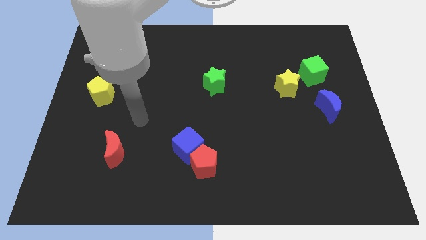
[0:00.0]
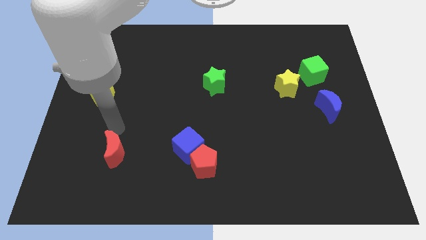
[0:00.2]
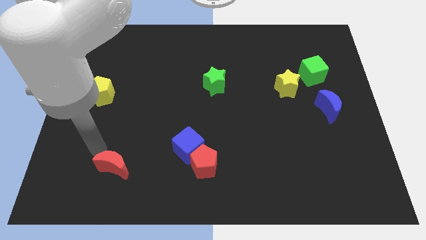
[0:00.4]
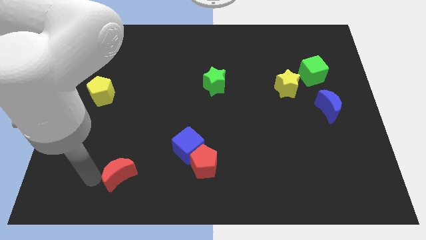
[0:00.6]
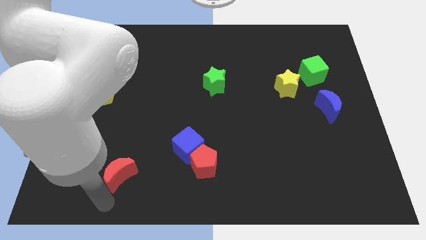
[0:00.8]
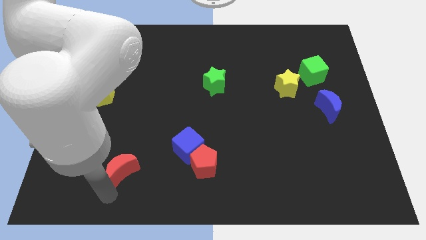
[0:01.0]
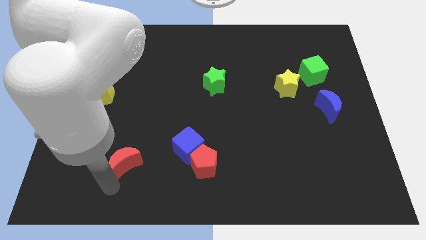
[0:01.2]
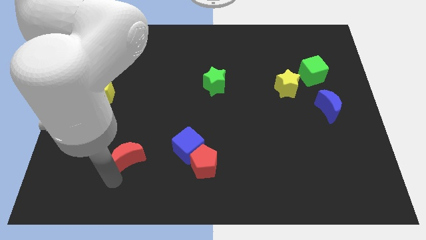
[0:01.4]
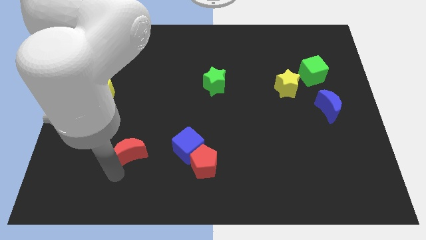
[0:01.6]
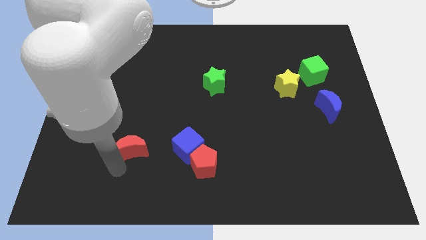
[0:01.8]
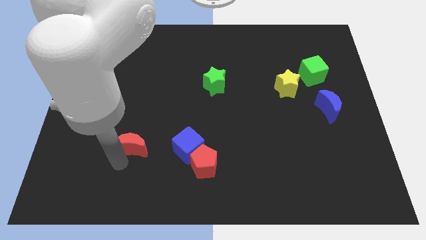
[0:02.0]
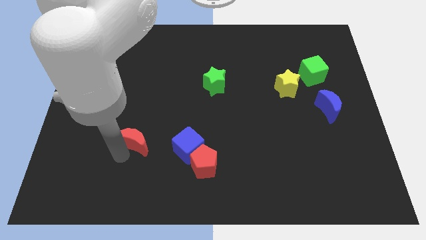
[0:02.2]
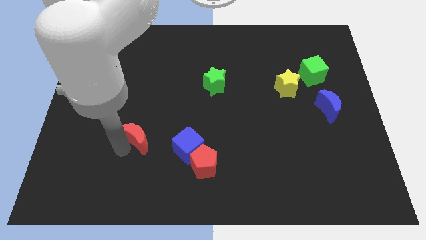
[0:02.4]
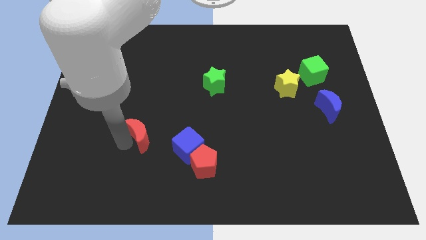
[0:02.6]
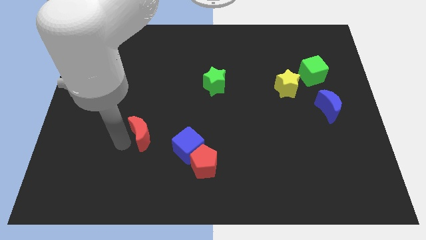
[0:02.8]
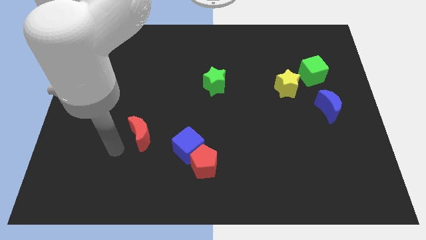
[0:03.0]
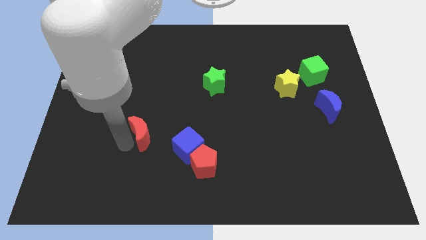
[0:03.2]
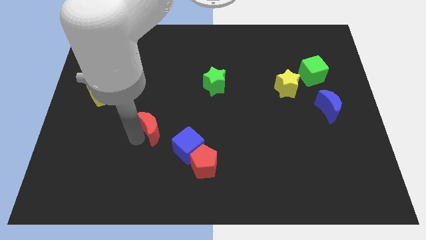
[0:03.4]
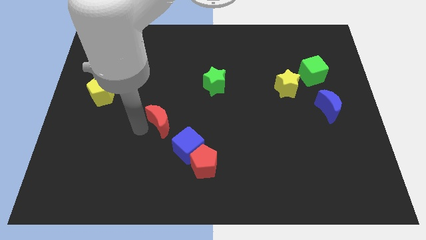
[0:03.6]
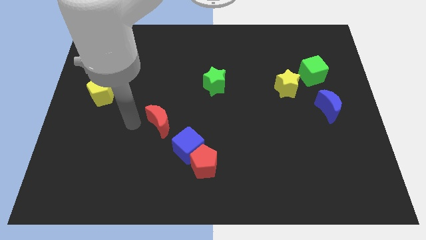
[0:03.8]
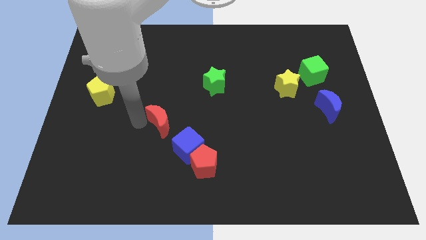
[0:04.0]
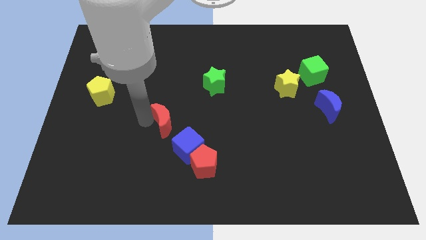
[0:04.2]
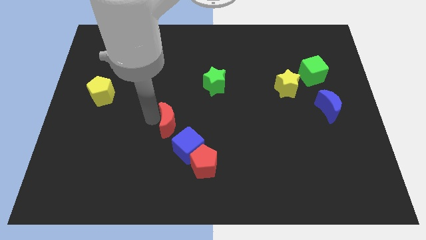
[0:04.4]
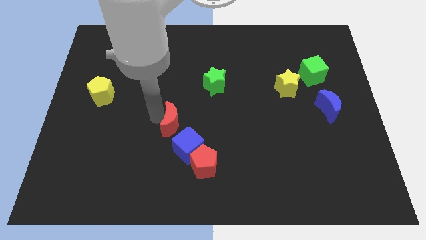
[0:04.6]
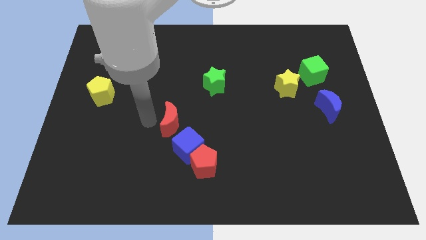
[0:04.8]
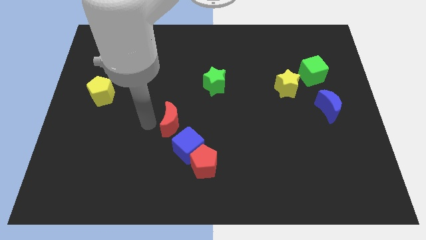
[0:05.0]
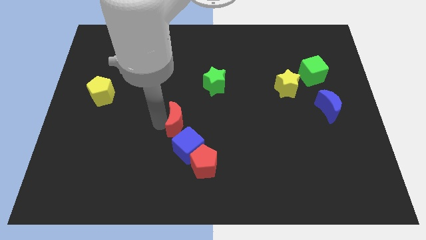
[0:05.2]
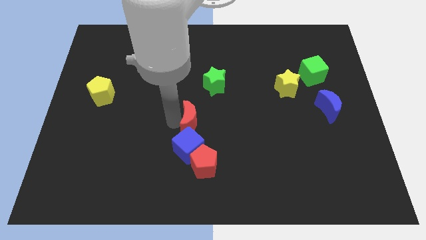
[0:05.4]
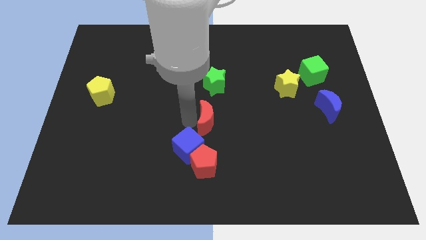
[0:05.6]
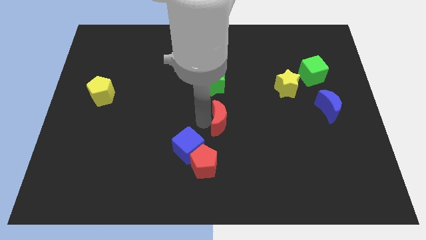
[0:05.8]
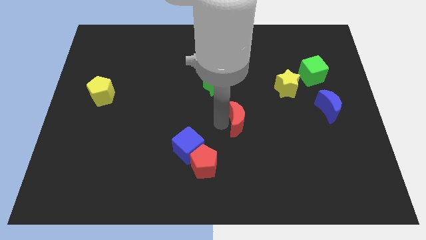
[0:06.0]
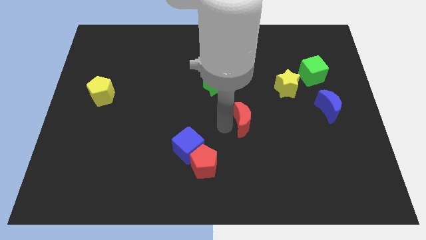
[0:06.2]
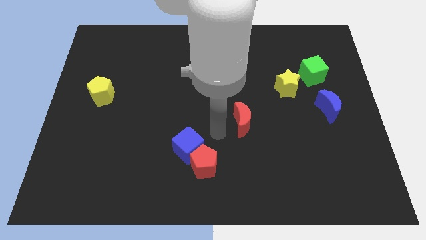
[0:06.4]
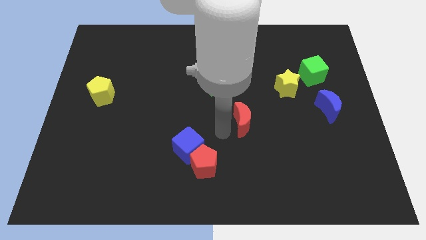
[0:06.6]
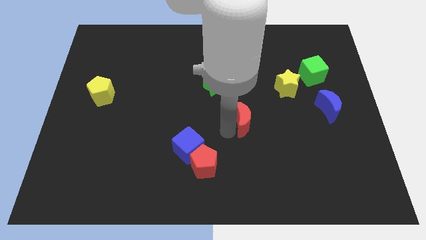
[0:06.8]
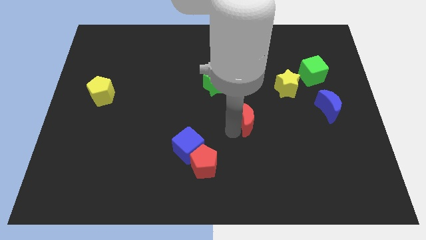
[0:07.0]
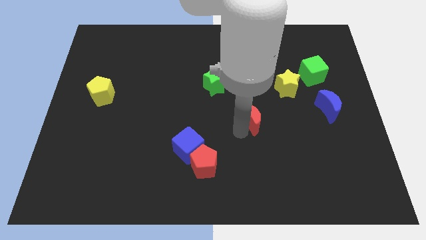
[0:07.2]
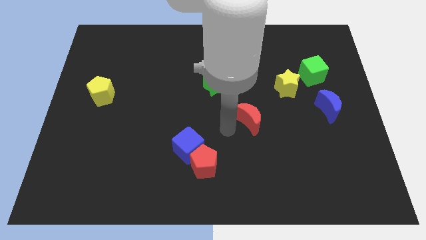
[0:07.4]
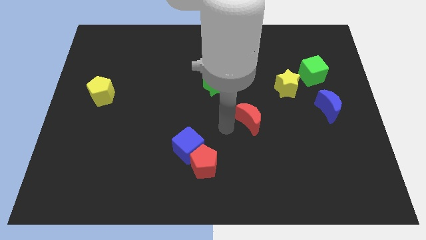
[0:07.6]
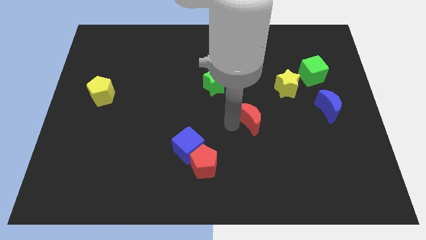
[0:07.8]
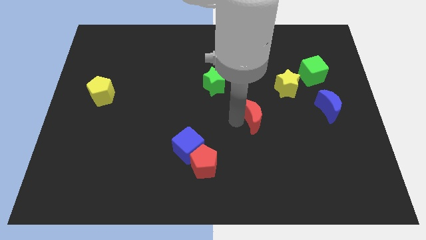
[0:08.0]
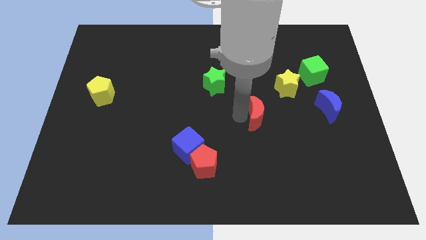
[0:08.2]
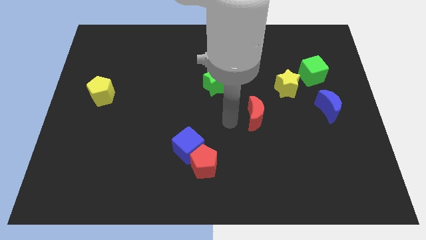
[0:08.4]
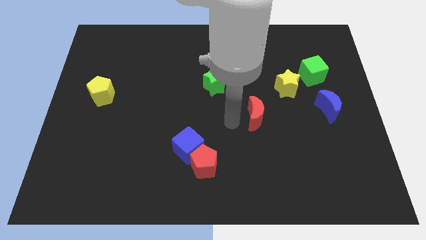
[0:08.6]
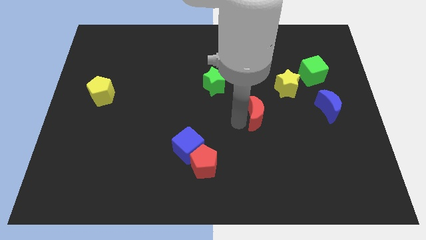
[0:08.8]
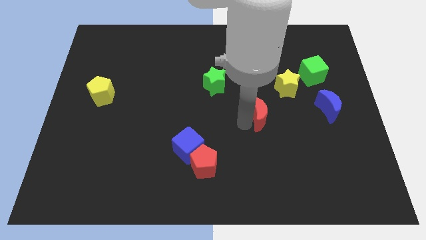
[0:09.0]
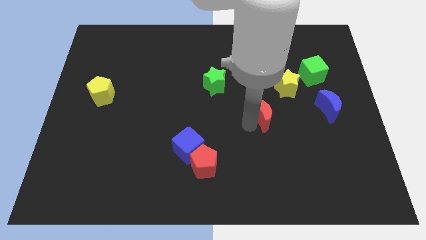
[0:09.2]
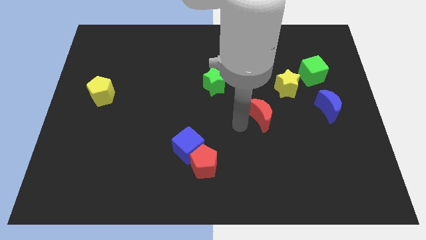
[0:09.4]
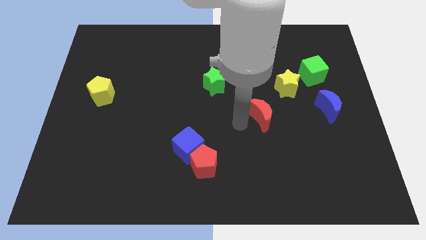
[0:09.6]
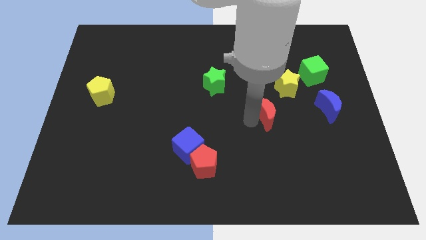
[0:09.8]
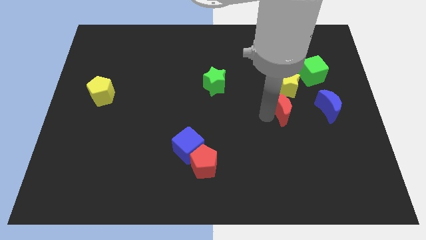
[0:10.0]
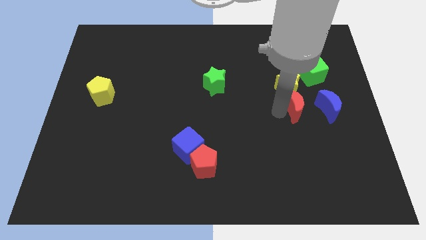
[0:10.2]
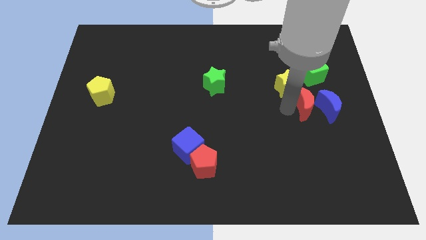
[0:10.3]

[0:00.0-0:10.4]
slide the red moon close to the blue moon

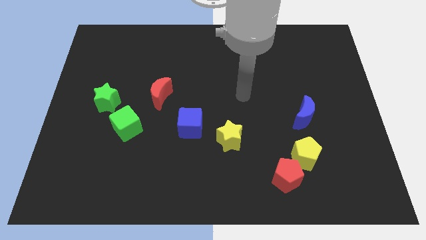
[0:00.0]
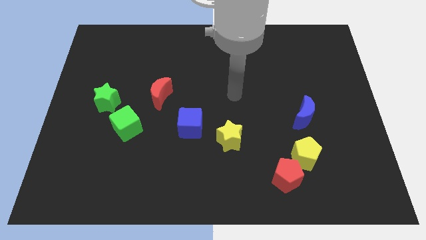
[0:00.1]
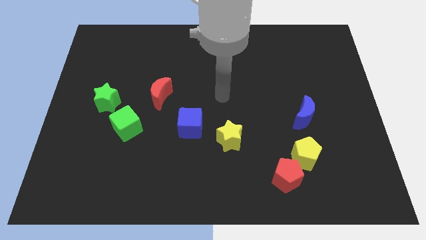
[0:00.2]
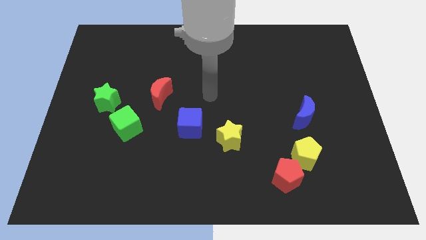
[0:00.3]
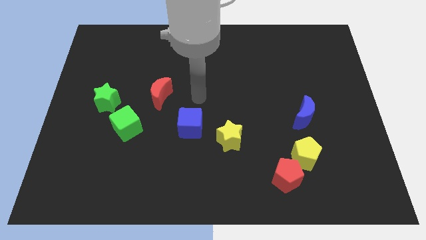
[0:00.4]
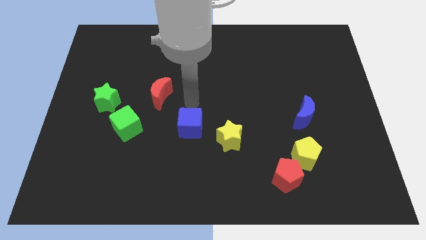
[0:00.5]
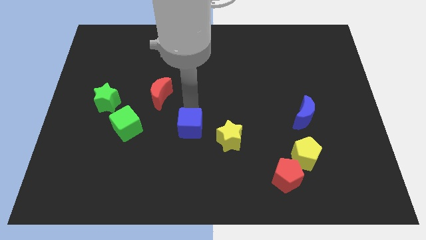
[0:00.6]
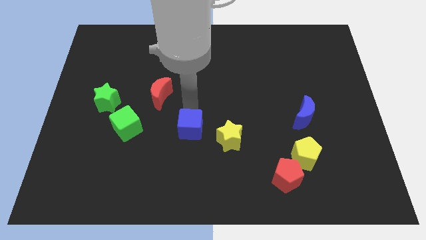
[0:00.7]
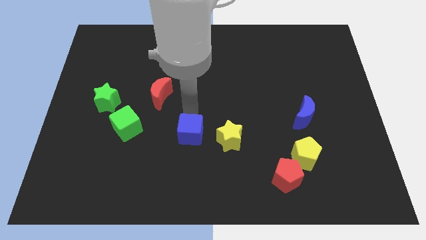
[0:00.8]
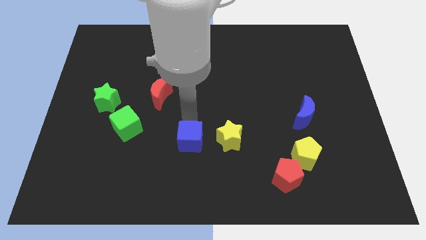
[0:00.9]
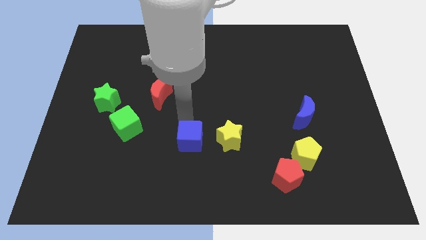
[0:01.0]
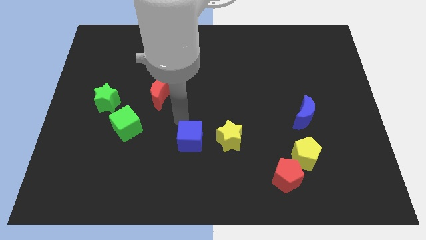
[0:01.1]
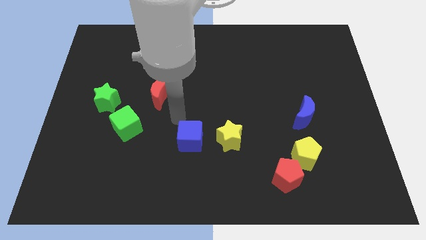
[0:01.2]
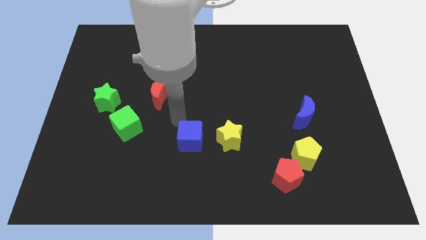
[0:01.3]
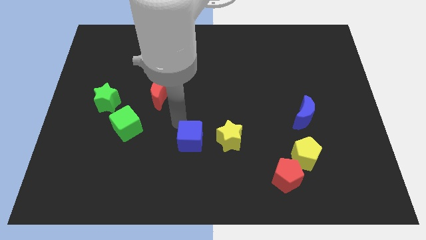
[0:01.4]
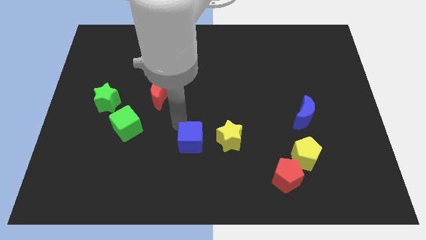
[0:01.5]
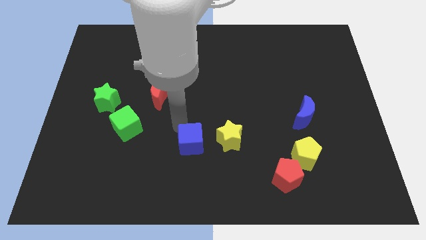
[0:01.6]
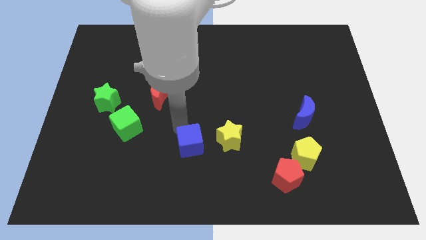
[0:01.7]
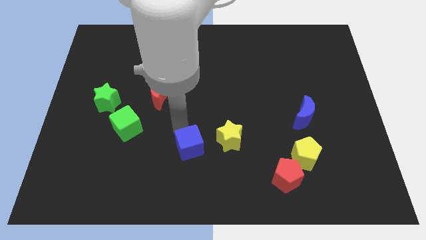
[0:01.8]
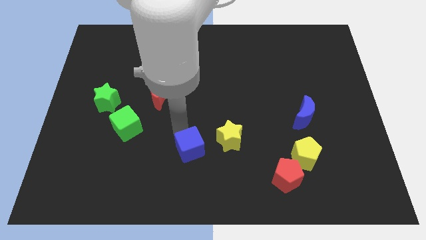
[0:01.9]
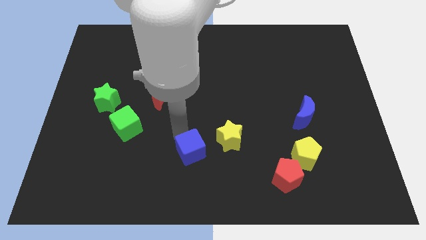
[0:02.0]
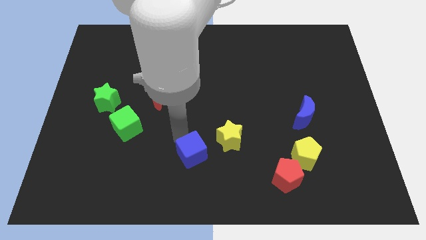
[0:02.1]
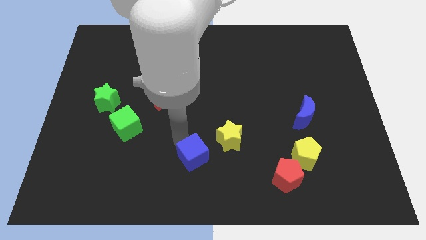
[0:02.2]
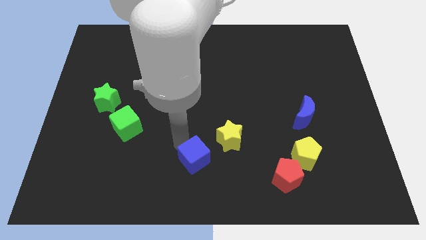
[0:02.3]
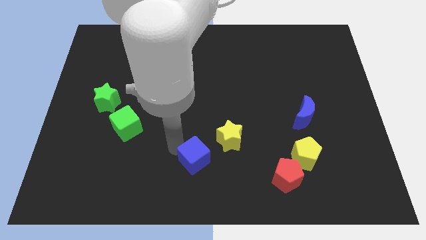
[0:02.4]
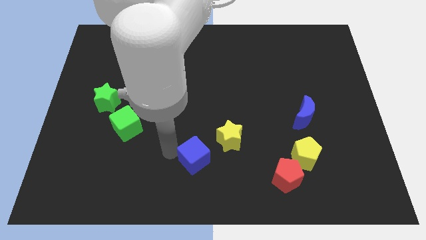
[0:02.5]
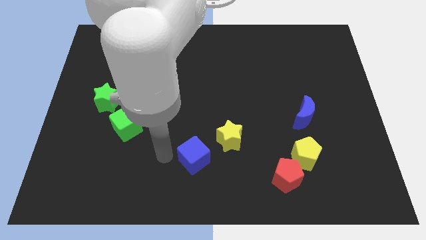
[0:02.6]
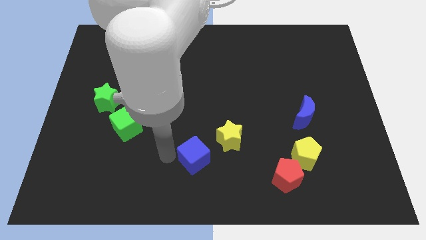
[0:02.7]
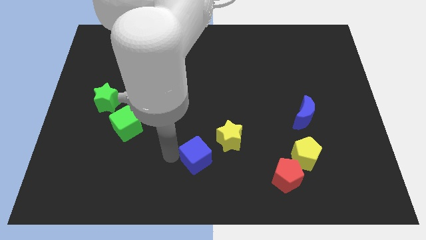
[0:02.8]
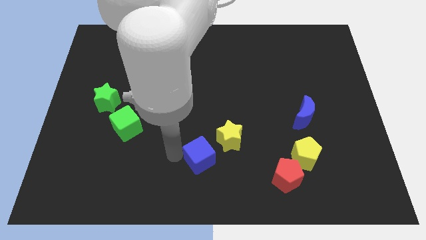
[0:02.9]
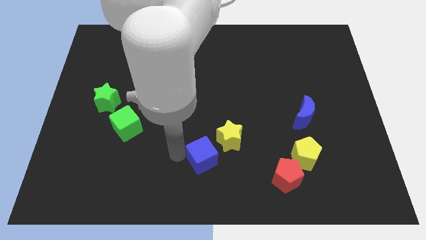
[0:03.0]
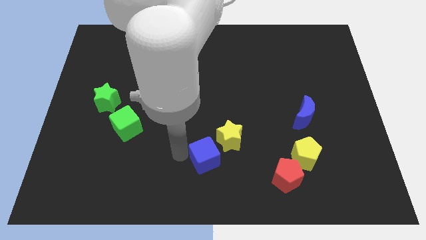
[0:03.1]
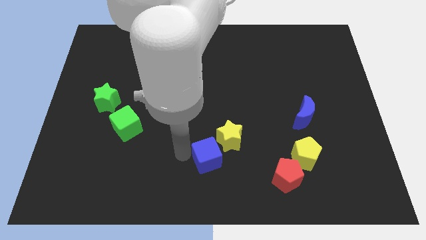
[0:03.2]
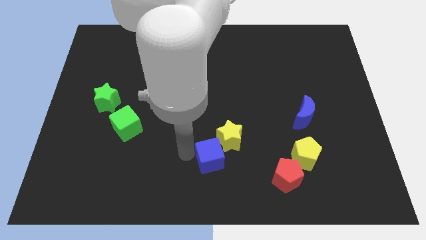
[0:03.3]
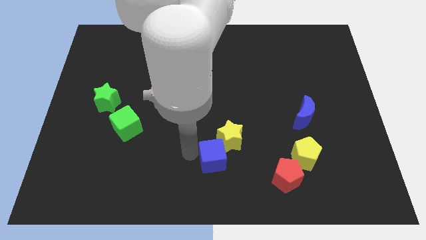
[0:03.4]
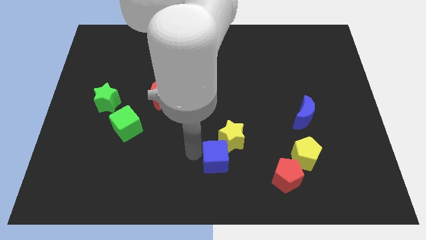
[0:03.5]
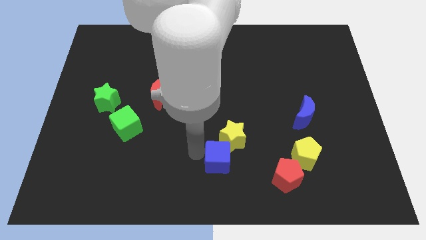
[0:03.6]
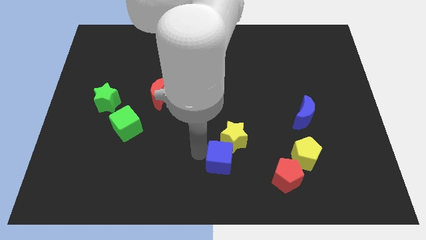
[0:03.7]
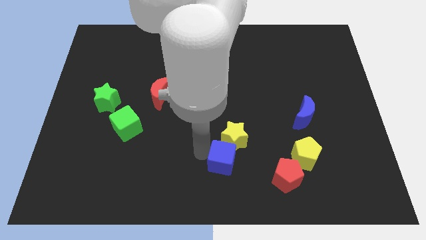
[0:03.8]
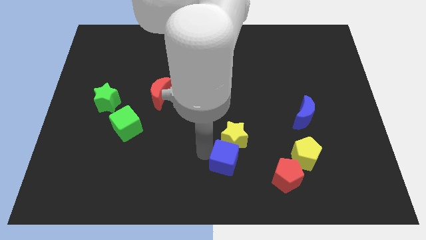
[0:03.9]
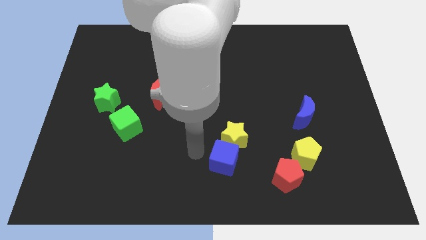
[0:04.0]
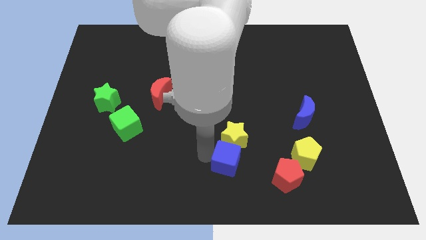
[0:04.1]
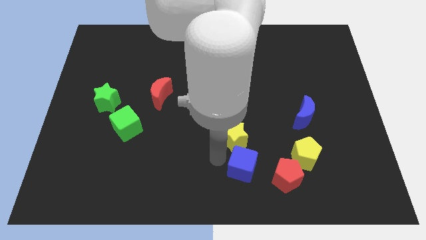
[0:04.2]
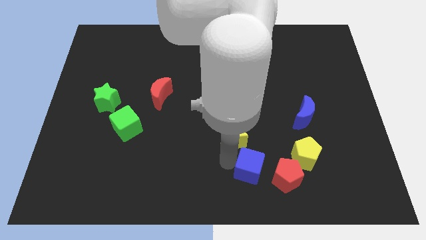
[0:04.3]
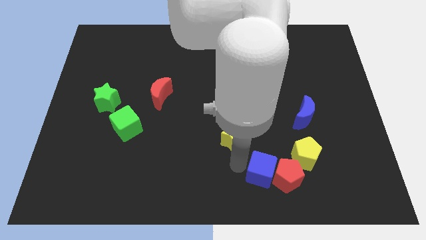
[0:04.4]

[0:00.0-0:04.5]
push the blue cube to the red pentagon
